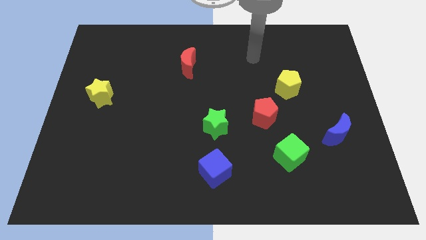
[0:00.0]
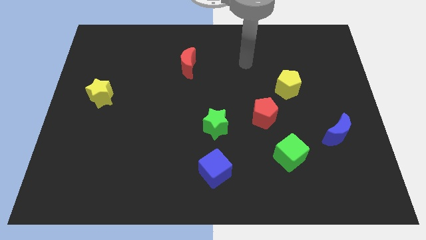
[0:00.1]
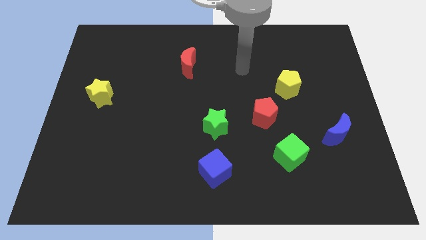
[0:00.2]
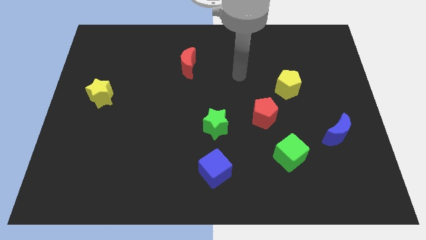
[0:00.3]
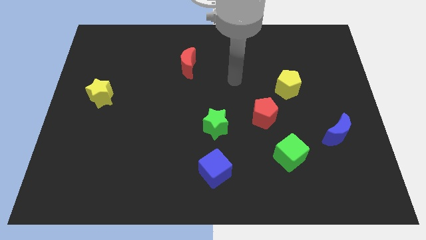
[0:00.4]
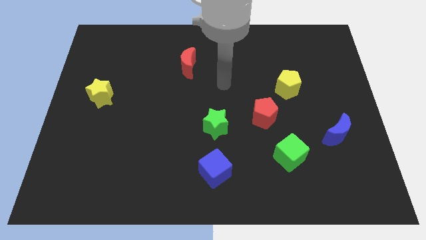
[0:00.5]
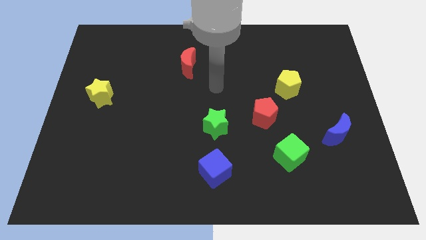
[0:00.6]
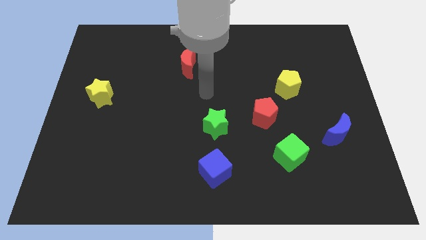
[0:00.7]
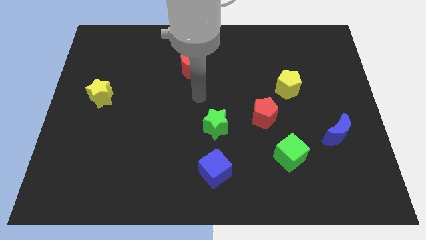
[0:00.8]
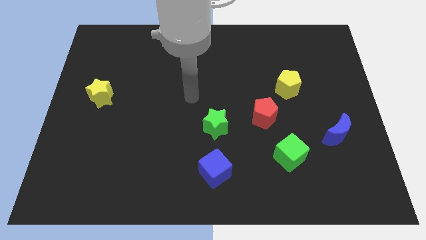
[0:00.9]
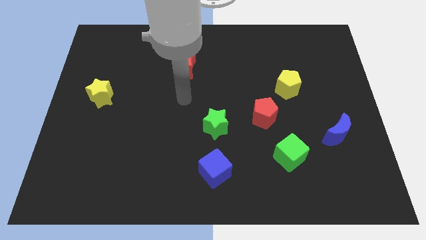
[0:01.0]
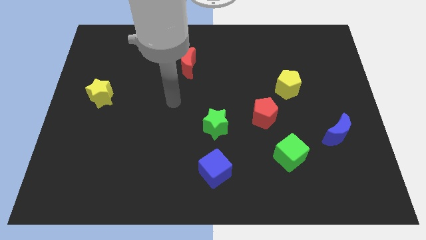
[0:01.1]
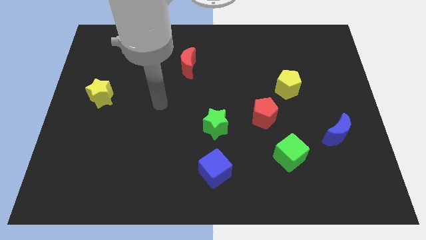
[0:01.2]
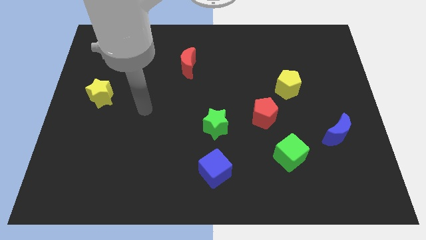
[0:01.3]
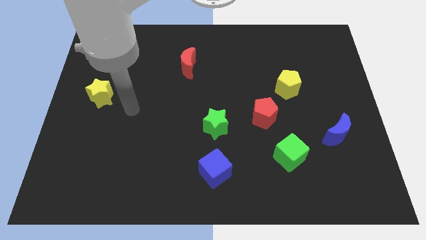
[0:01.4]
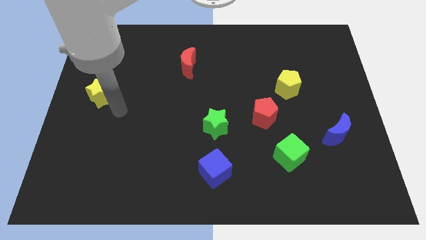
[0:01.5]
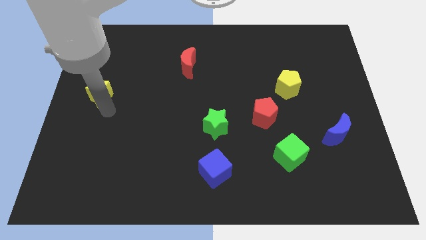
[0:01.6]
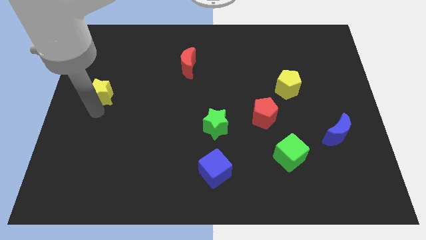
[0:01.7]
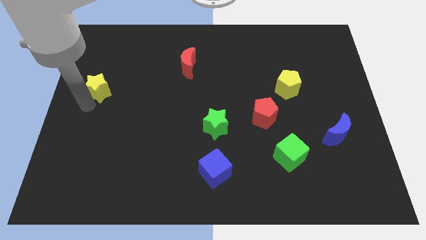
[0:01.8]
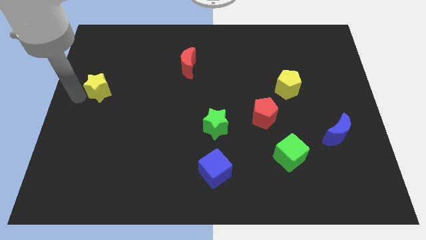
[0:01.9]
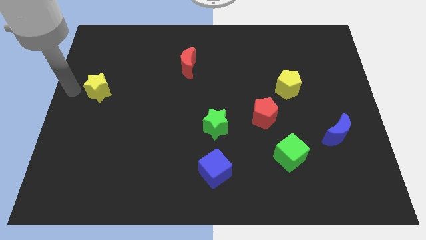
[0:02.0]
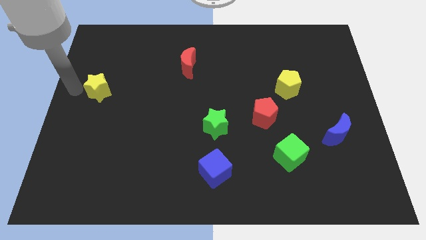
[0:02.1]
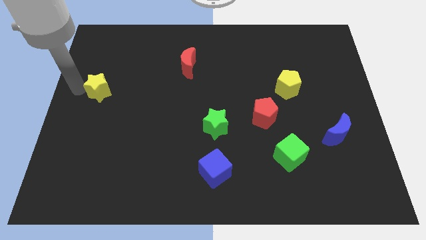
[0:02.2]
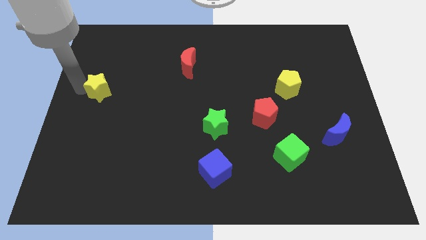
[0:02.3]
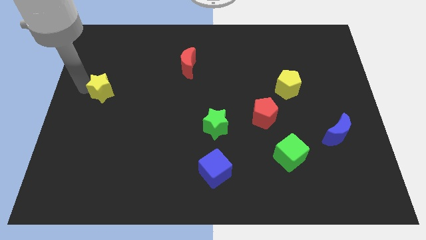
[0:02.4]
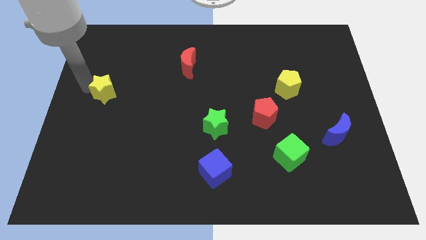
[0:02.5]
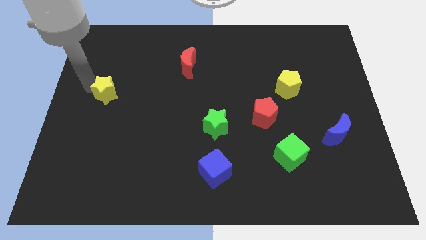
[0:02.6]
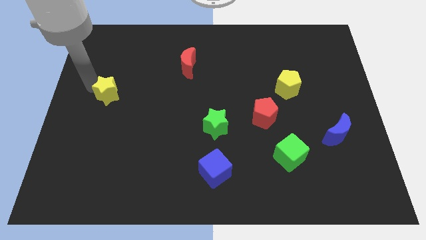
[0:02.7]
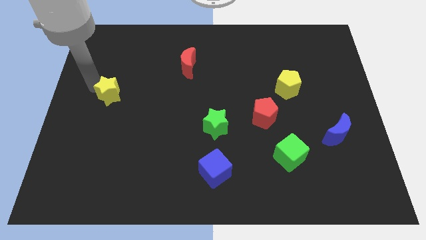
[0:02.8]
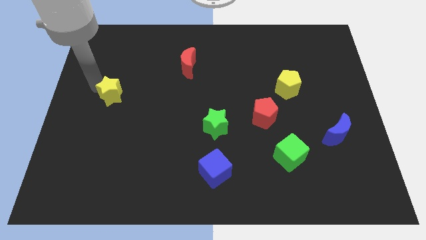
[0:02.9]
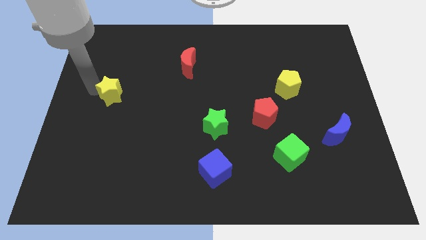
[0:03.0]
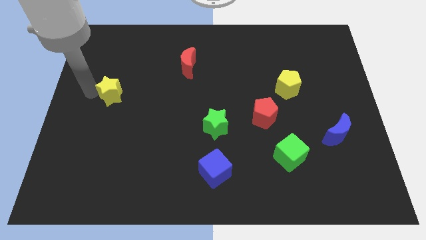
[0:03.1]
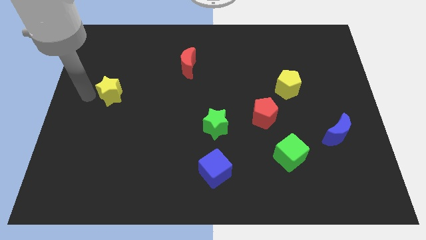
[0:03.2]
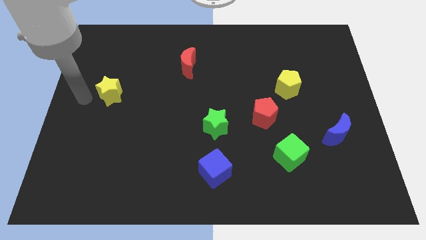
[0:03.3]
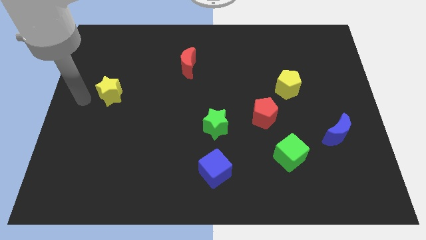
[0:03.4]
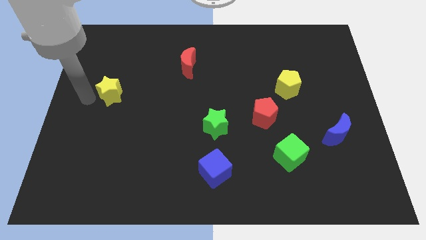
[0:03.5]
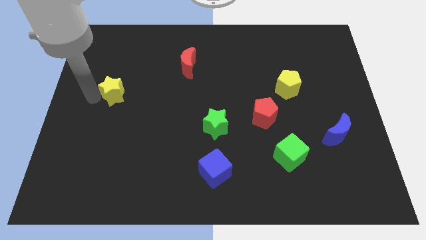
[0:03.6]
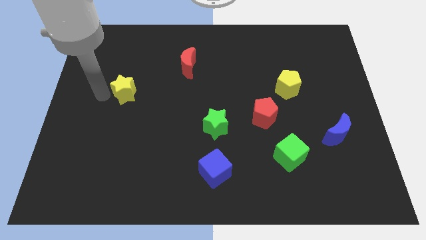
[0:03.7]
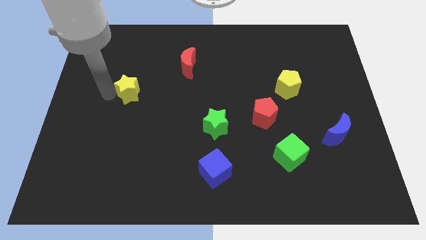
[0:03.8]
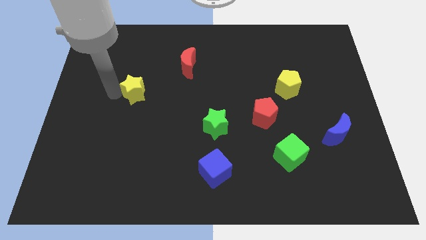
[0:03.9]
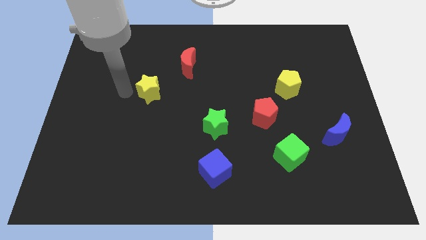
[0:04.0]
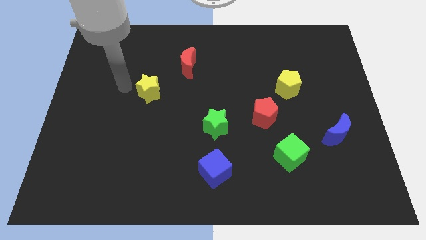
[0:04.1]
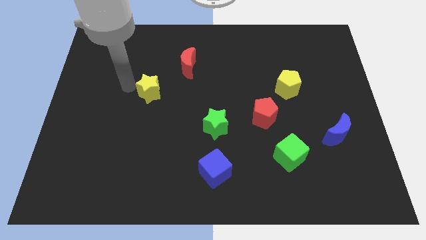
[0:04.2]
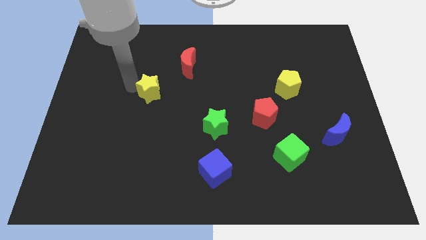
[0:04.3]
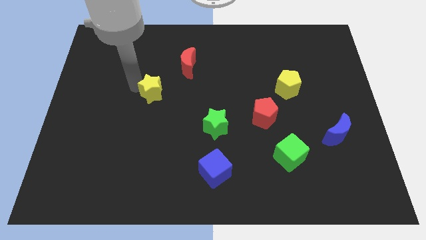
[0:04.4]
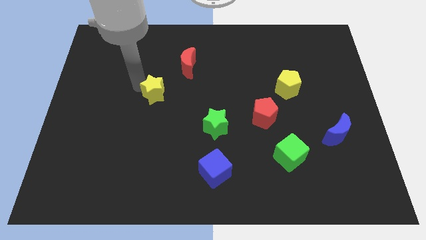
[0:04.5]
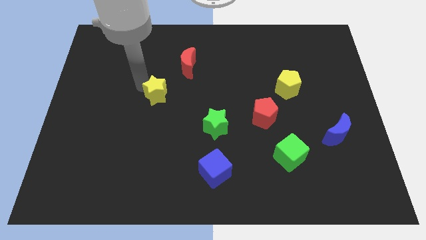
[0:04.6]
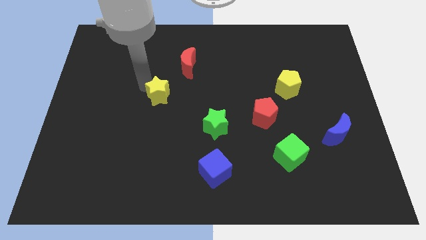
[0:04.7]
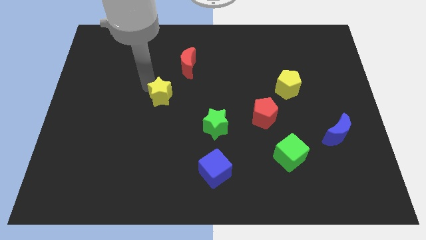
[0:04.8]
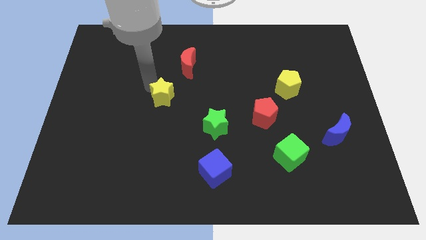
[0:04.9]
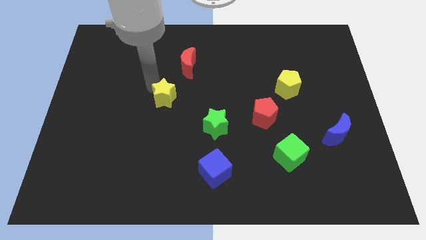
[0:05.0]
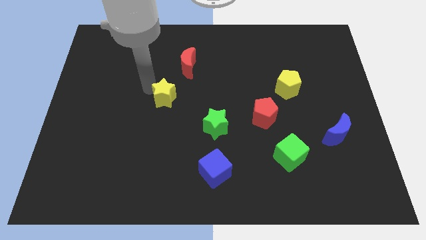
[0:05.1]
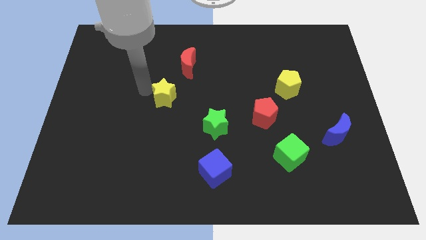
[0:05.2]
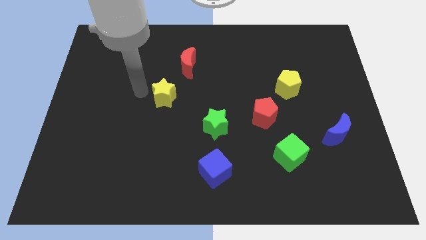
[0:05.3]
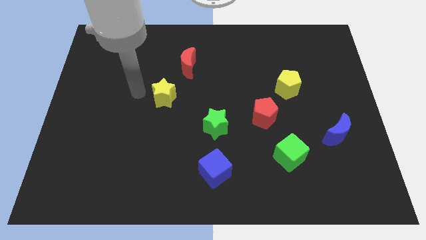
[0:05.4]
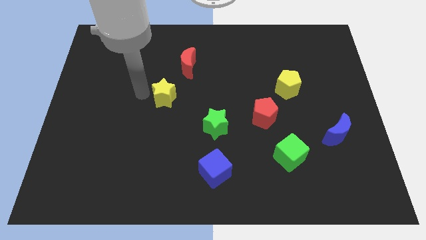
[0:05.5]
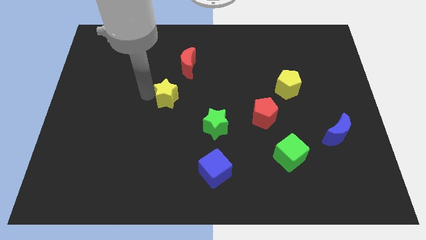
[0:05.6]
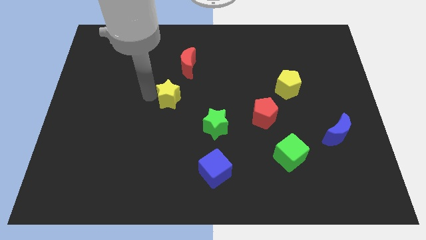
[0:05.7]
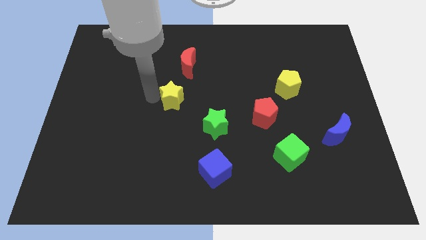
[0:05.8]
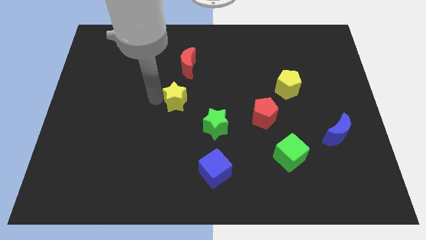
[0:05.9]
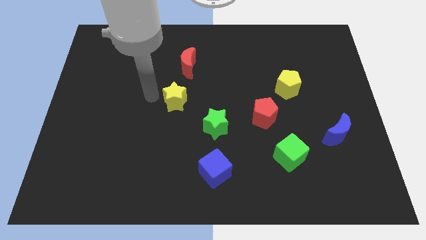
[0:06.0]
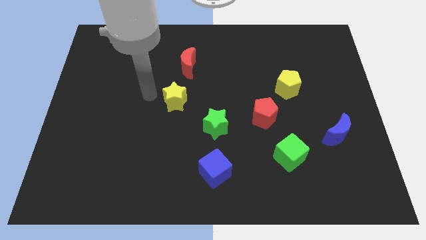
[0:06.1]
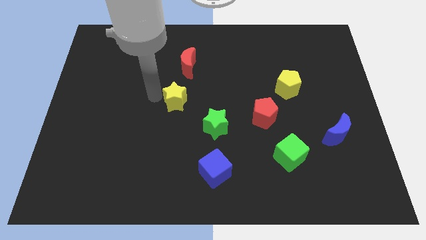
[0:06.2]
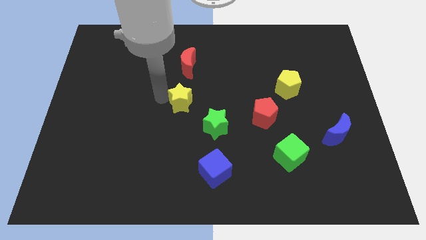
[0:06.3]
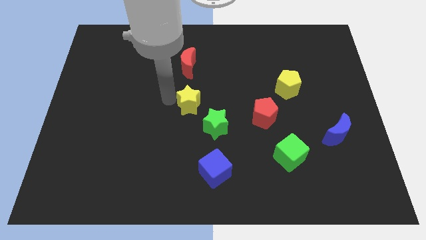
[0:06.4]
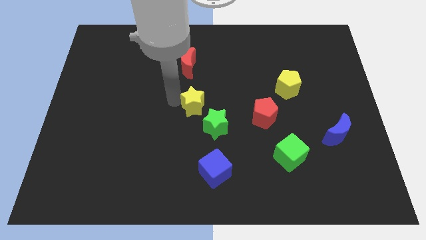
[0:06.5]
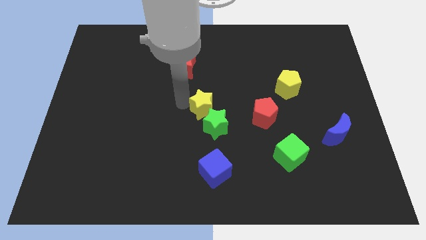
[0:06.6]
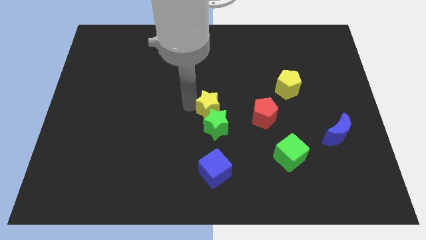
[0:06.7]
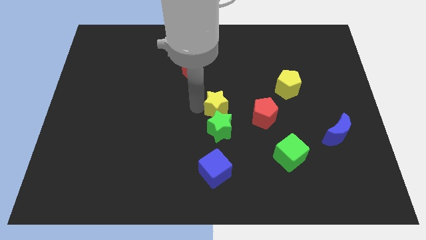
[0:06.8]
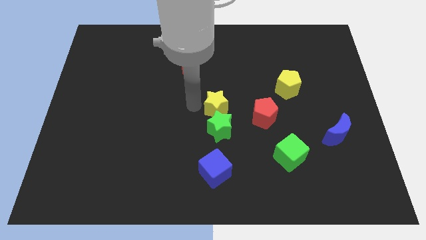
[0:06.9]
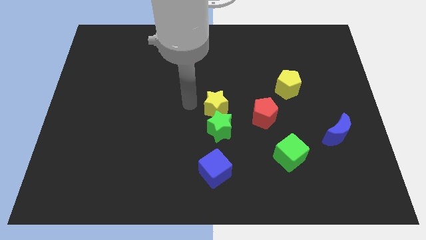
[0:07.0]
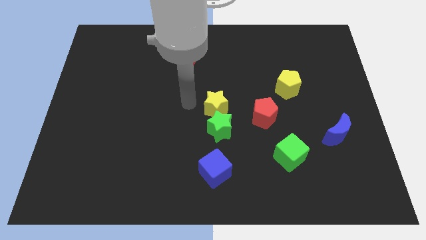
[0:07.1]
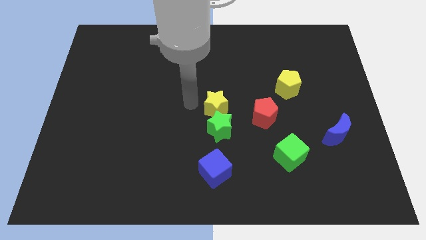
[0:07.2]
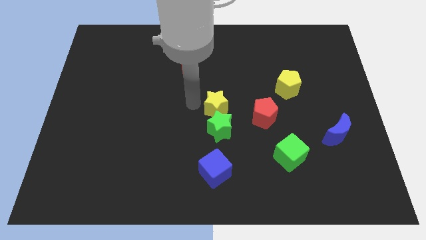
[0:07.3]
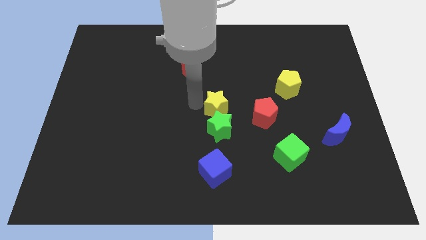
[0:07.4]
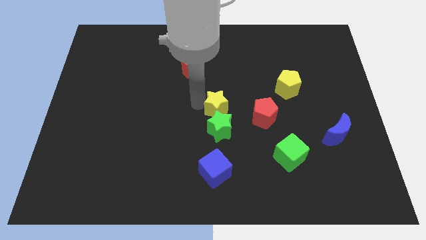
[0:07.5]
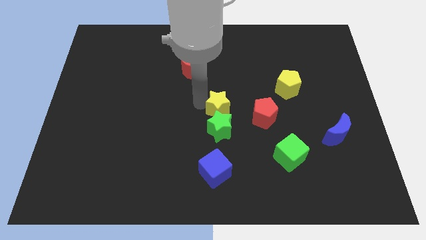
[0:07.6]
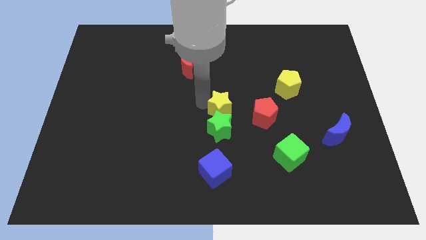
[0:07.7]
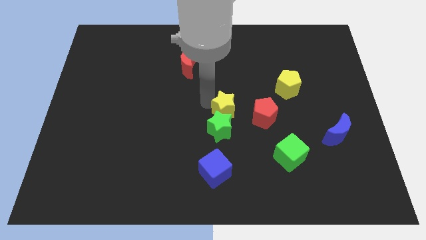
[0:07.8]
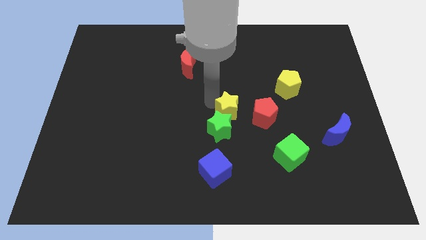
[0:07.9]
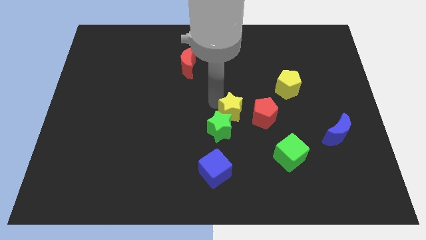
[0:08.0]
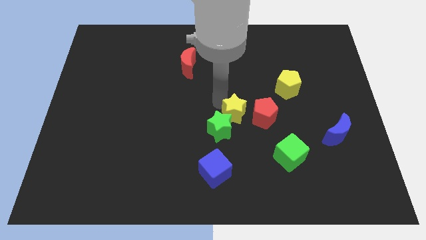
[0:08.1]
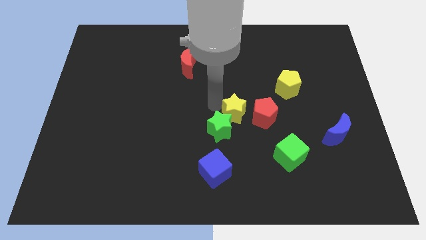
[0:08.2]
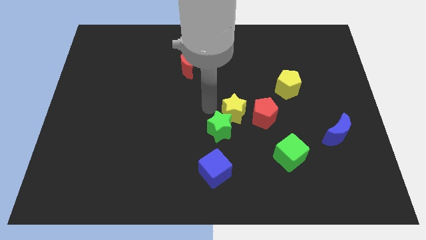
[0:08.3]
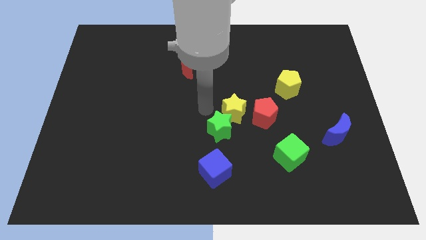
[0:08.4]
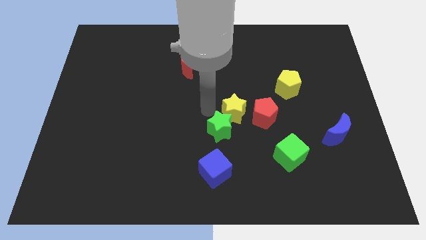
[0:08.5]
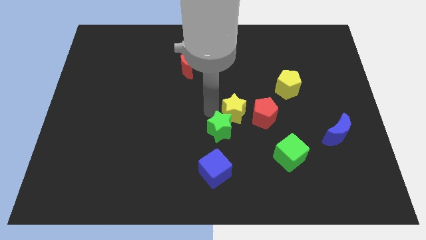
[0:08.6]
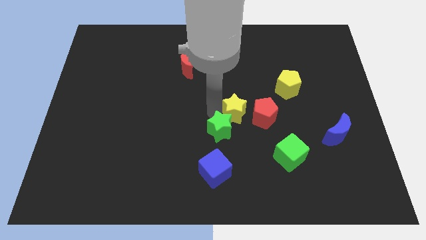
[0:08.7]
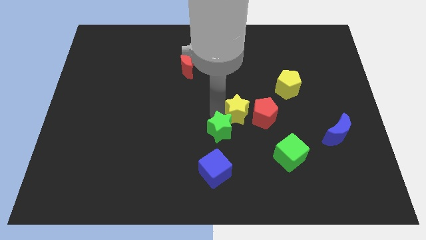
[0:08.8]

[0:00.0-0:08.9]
push the yellow star to the red pentagon
